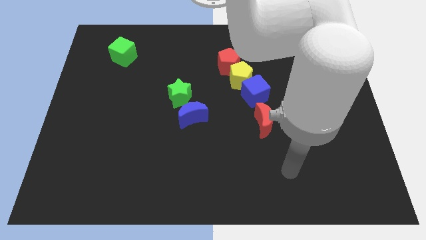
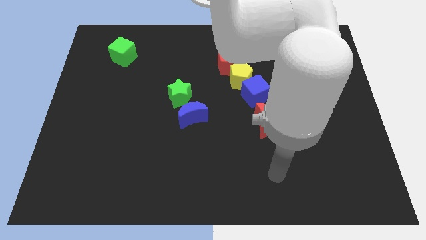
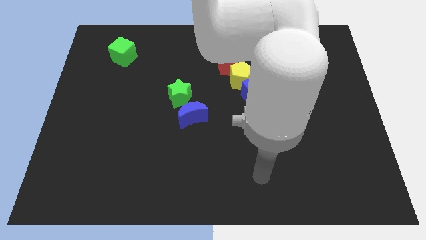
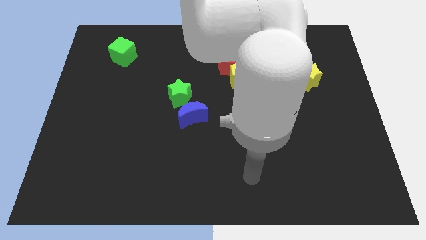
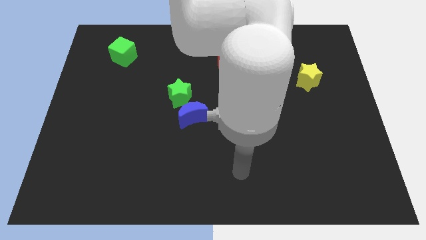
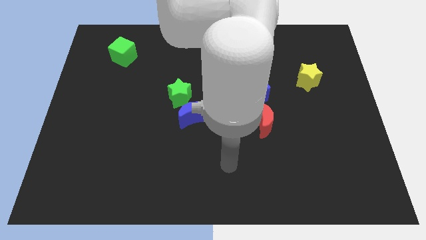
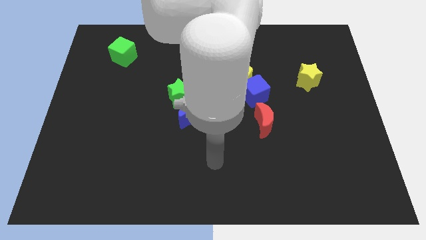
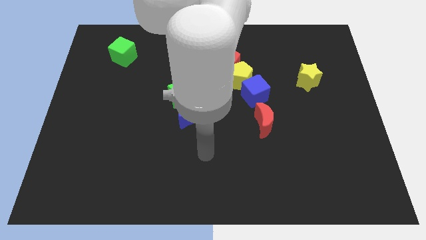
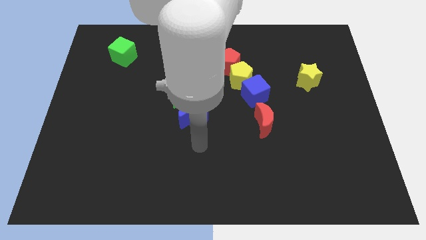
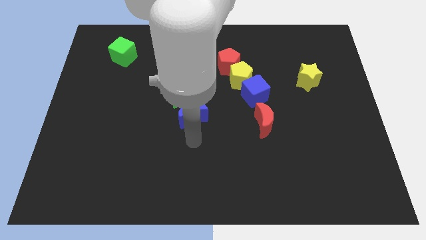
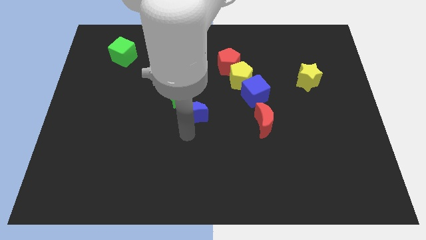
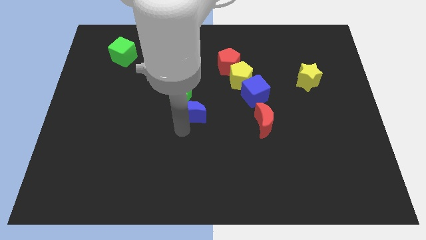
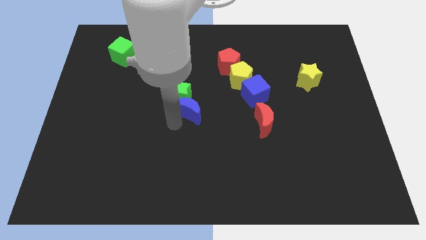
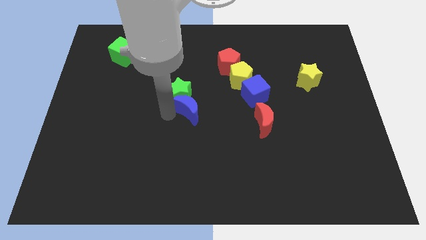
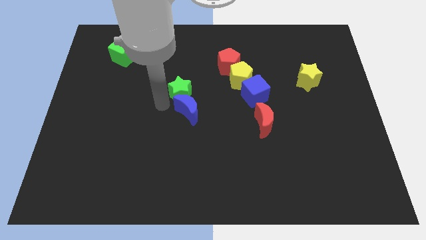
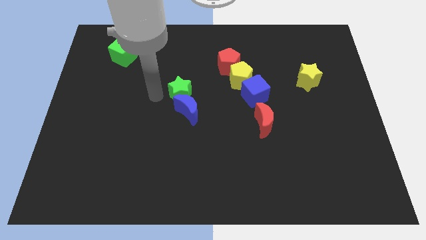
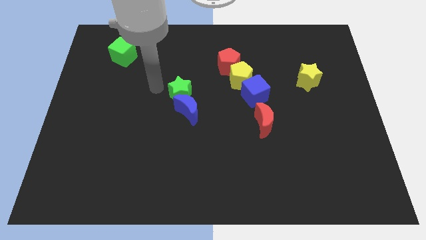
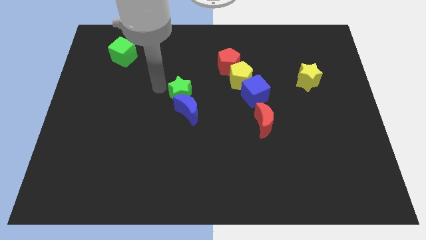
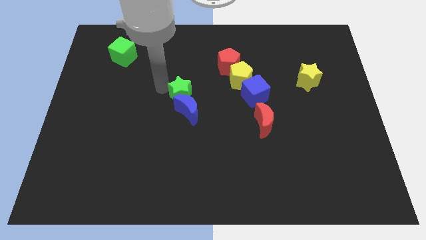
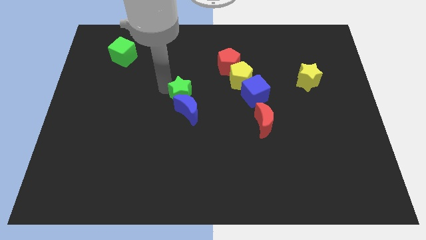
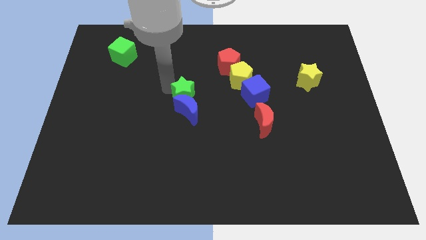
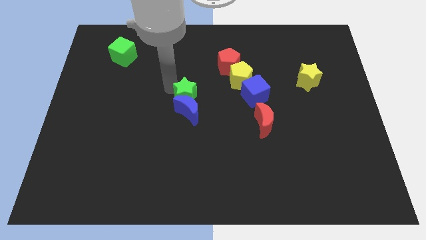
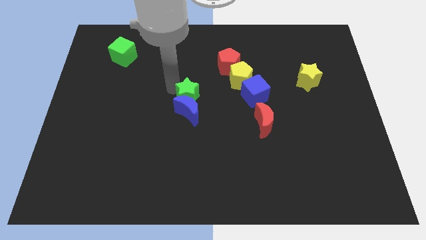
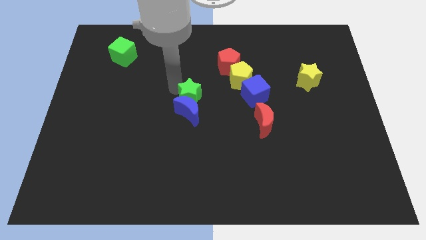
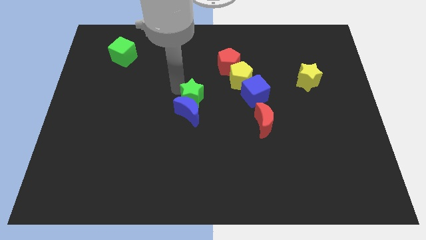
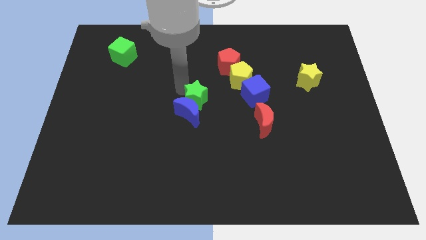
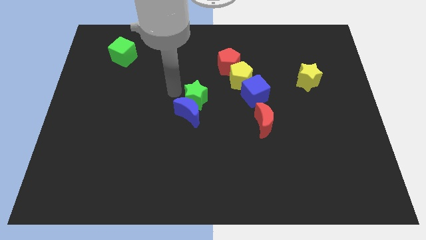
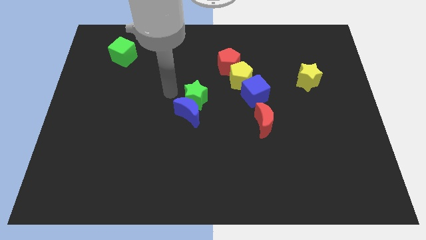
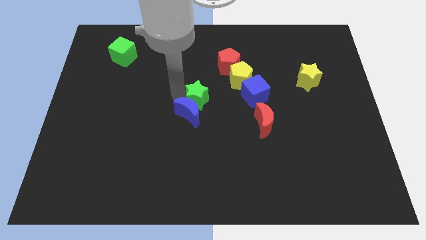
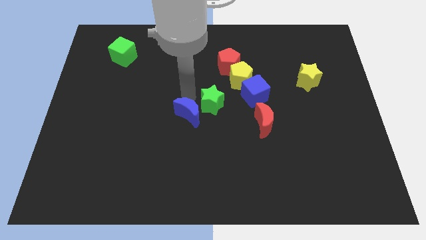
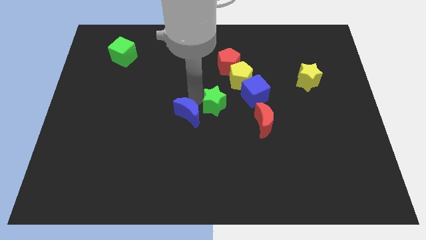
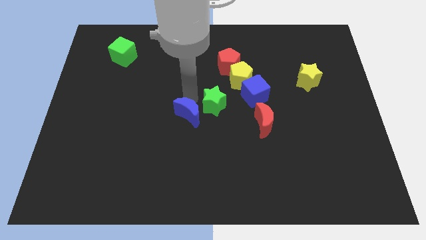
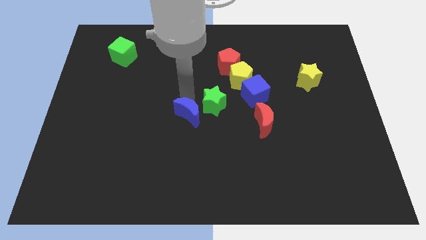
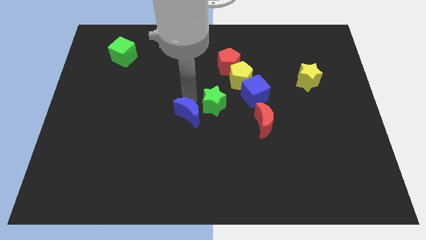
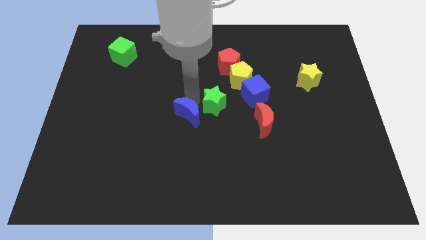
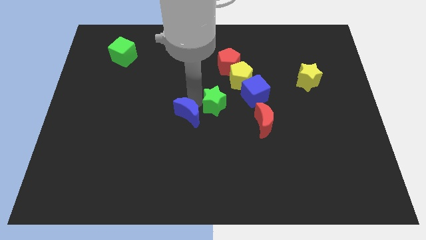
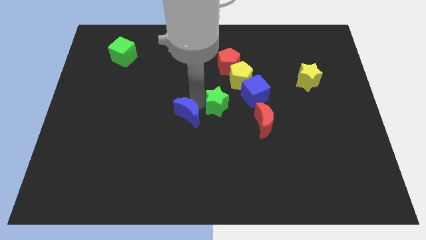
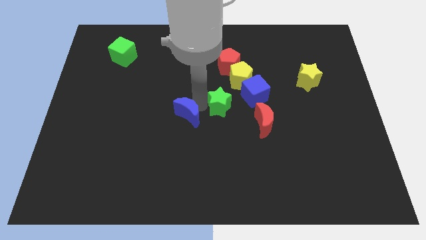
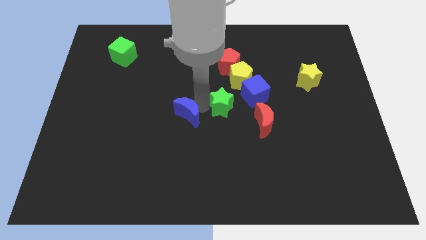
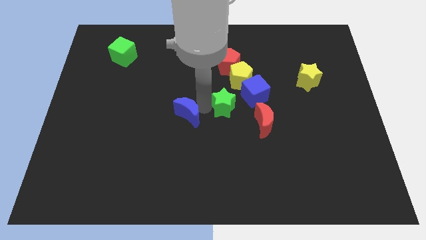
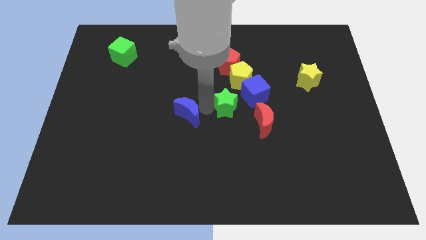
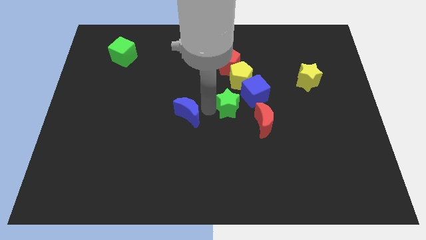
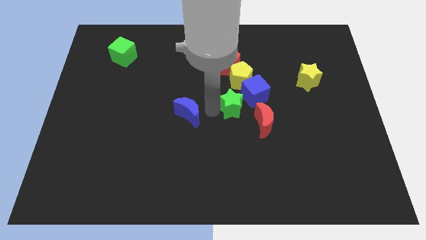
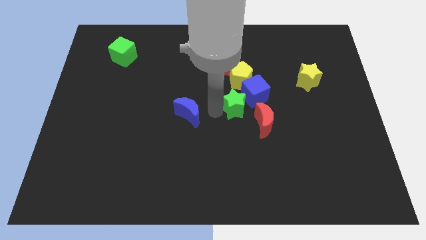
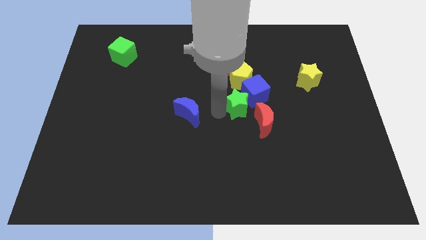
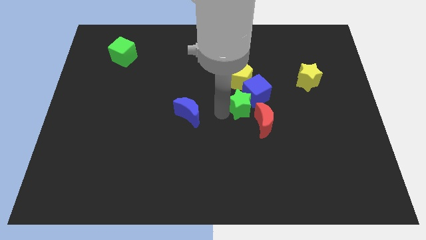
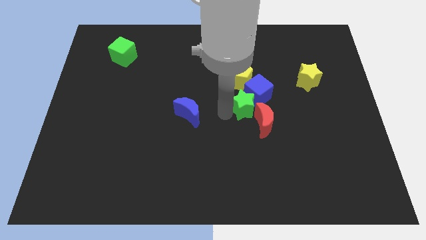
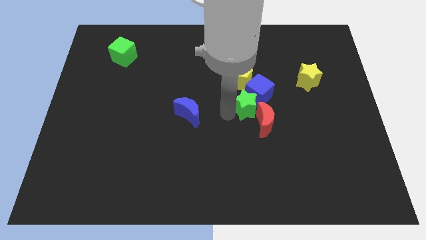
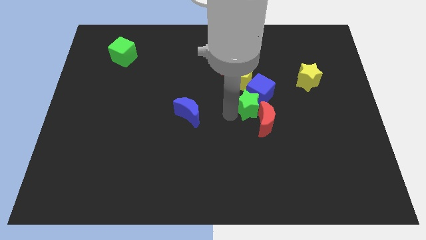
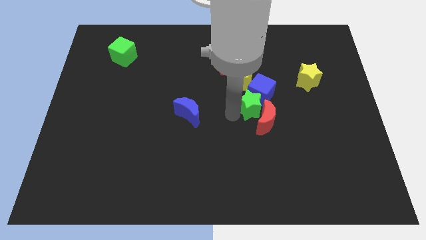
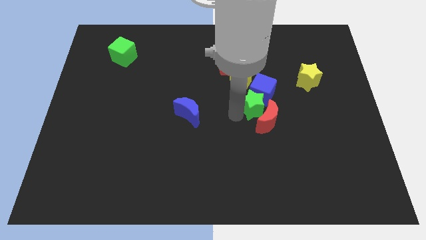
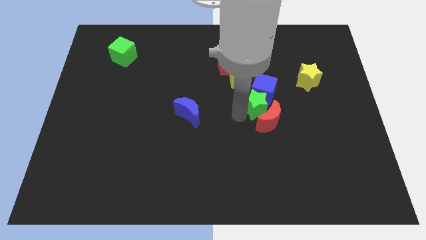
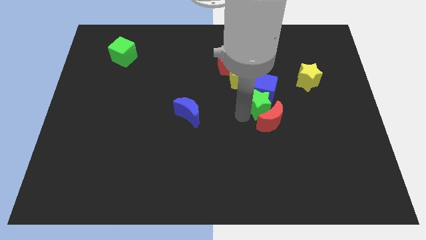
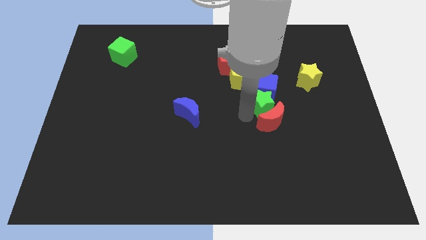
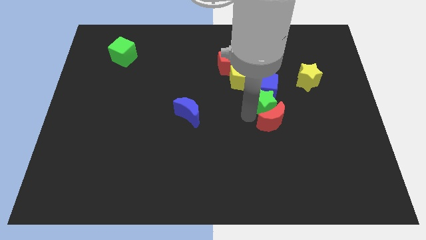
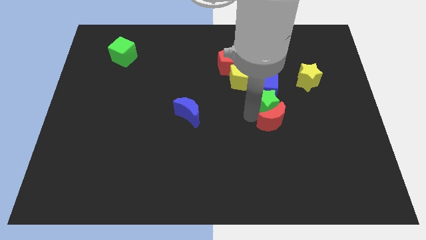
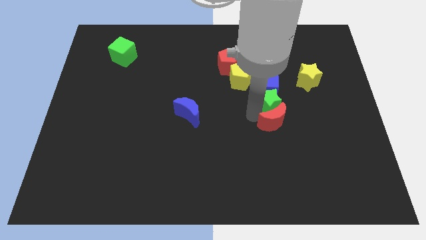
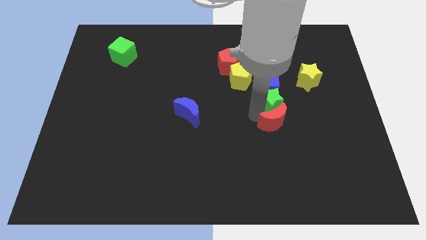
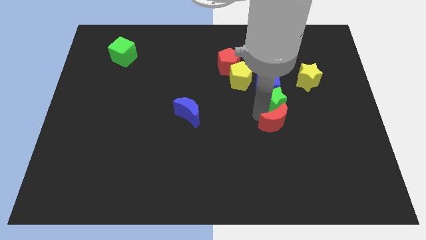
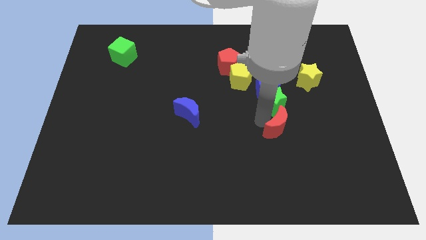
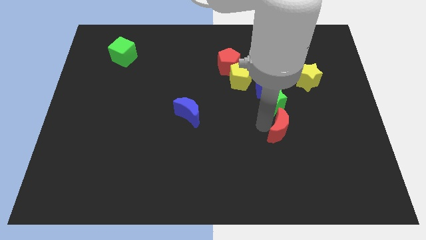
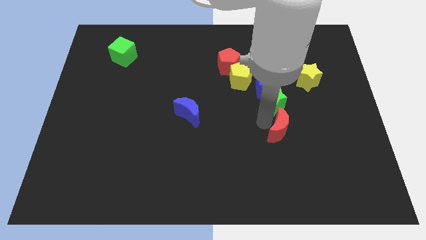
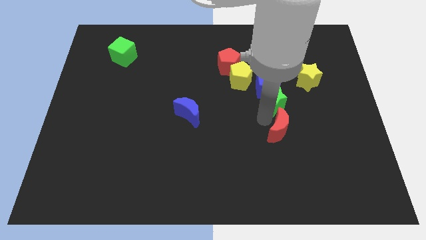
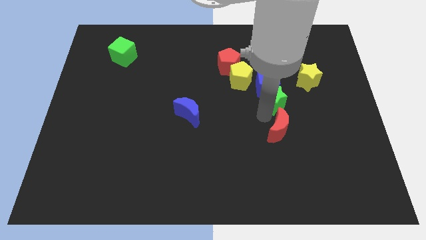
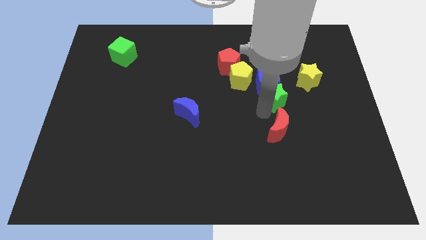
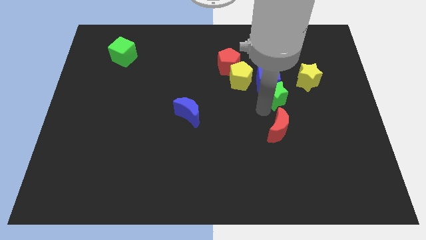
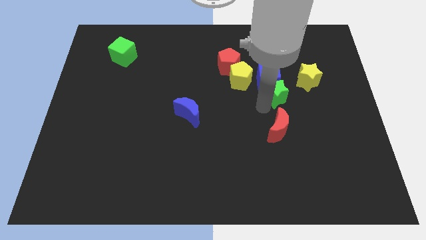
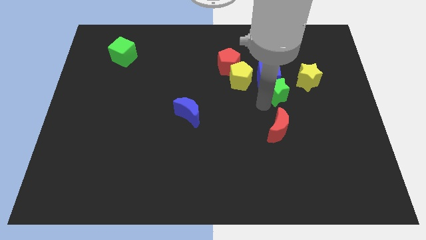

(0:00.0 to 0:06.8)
slide the green star right of the yellow pentagon
